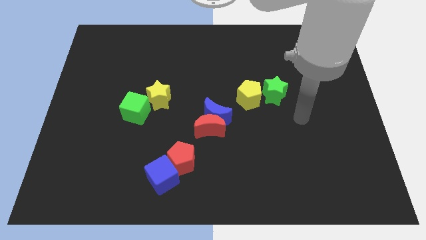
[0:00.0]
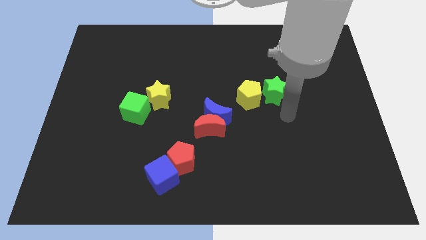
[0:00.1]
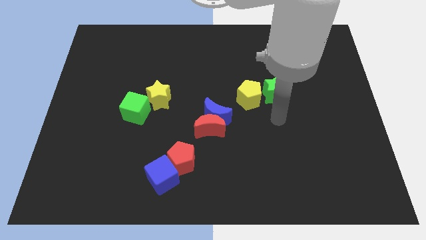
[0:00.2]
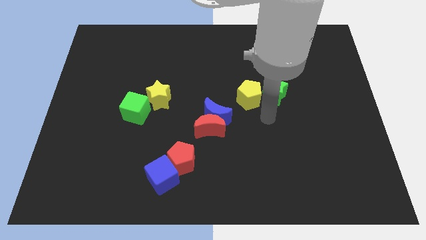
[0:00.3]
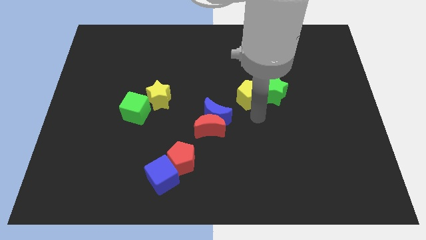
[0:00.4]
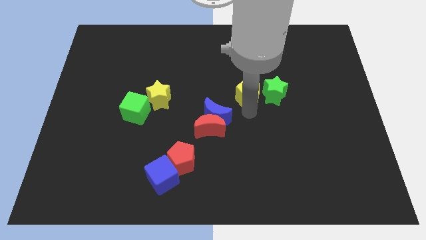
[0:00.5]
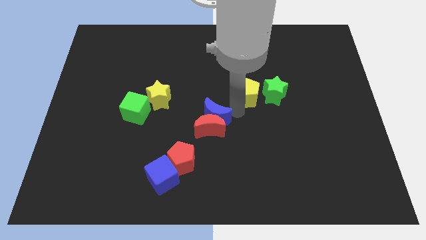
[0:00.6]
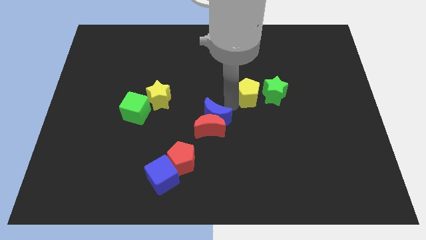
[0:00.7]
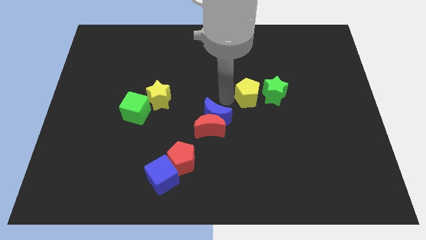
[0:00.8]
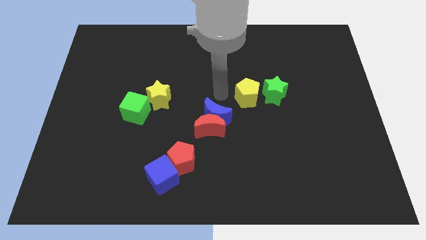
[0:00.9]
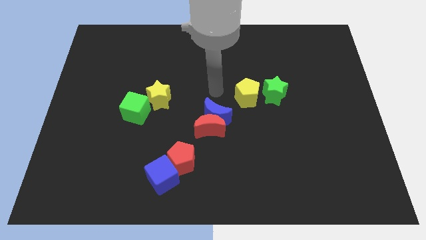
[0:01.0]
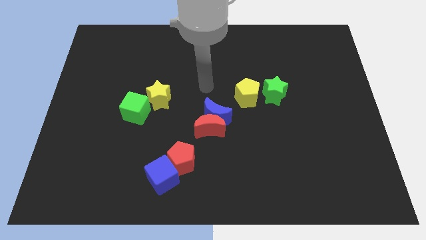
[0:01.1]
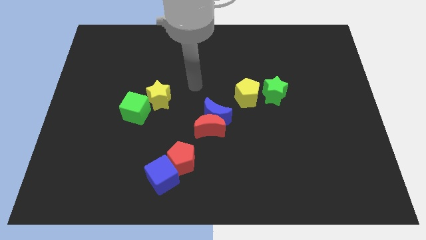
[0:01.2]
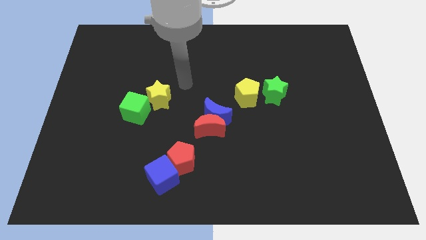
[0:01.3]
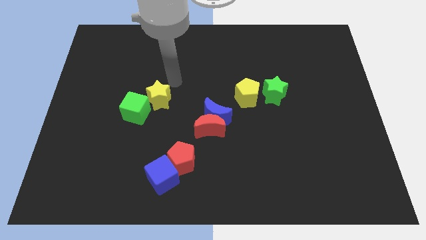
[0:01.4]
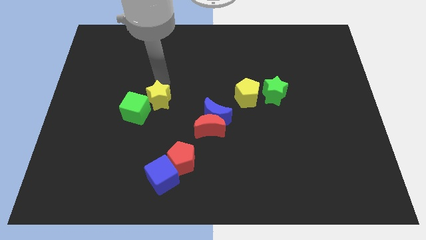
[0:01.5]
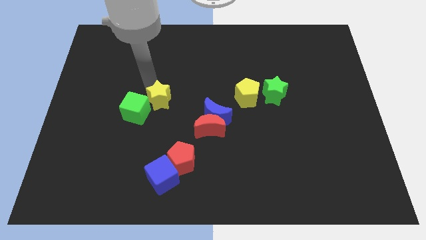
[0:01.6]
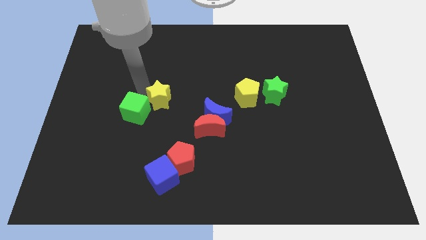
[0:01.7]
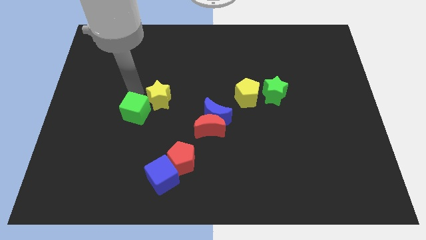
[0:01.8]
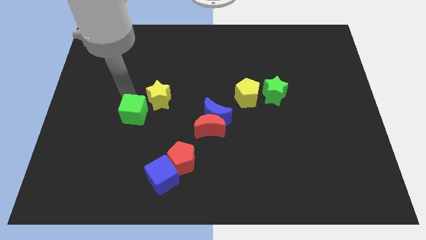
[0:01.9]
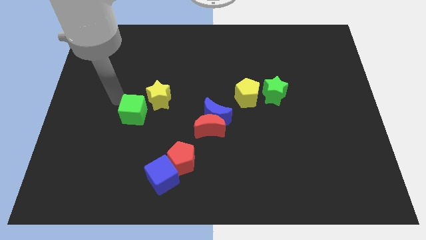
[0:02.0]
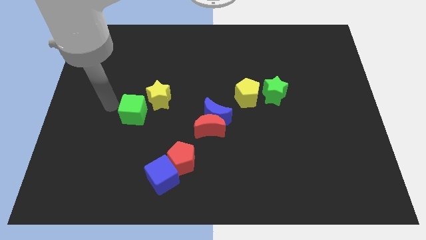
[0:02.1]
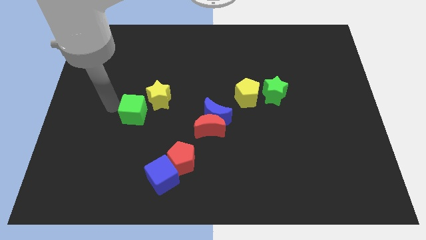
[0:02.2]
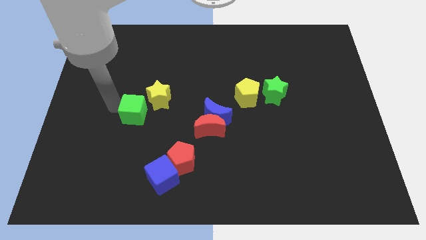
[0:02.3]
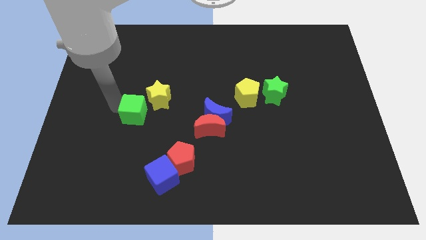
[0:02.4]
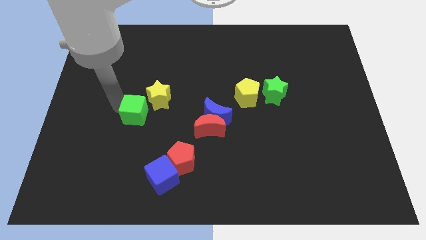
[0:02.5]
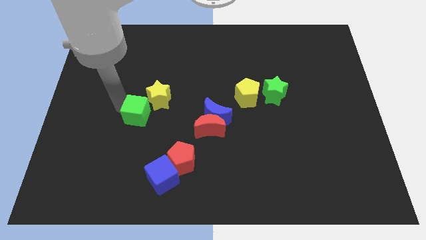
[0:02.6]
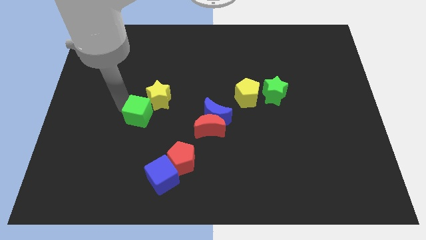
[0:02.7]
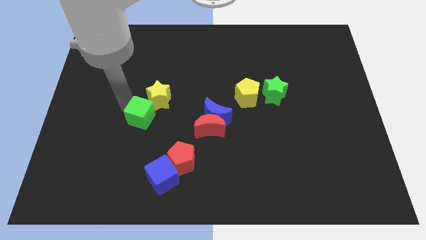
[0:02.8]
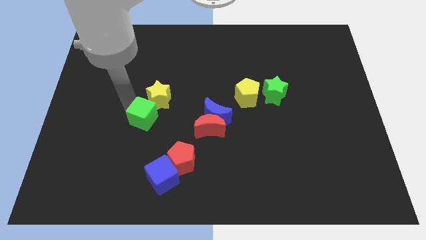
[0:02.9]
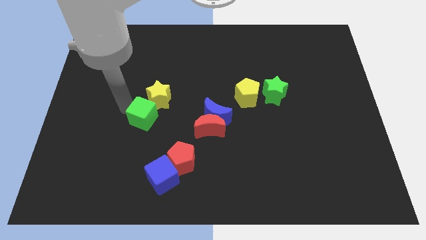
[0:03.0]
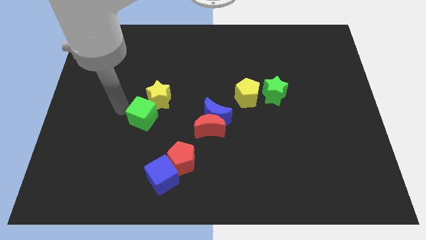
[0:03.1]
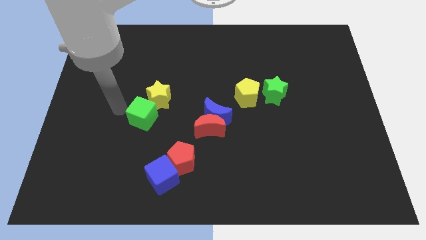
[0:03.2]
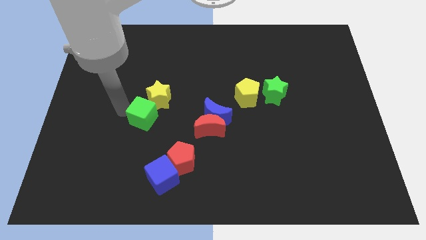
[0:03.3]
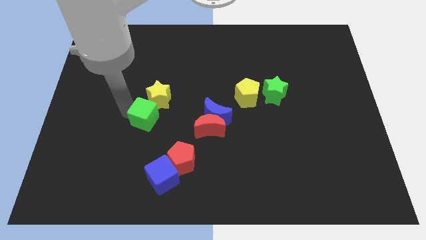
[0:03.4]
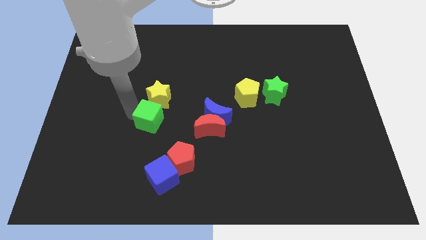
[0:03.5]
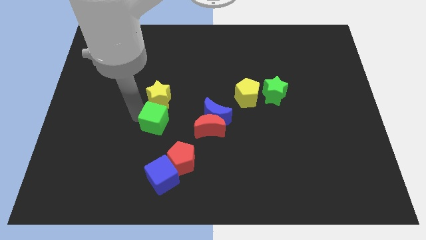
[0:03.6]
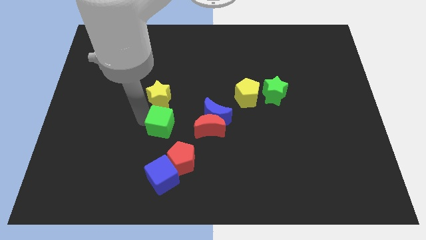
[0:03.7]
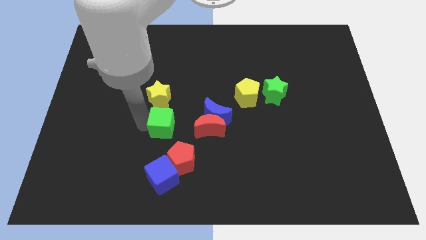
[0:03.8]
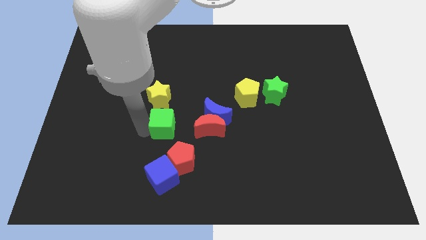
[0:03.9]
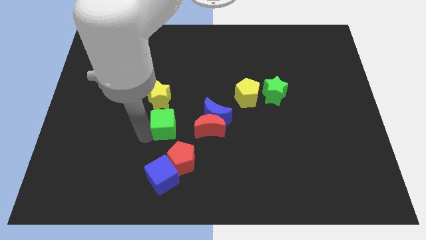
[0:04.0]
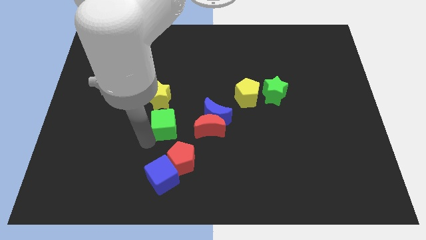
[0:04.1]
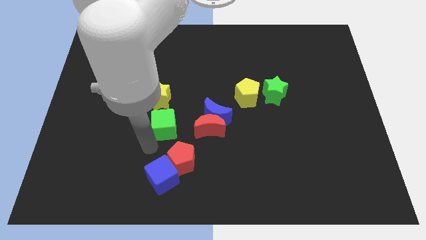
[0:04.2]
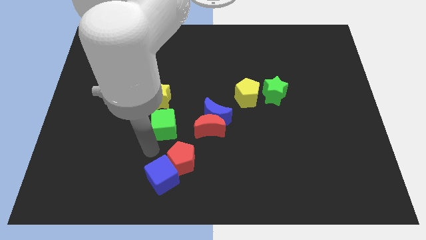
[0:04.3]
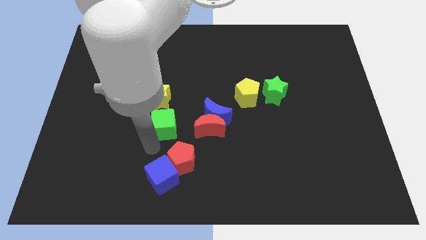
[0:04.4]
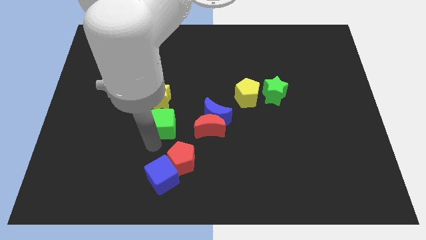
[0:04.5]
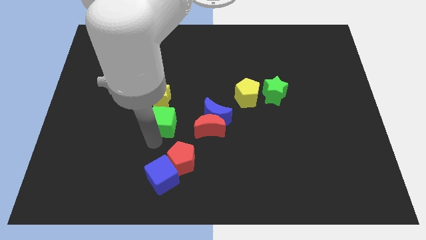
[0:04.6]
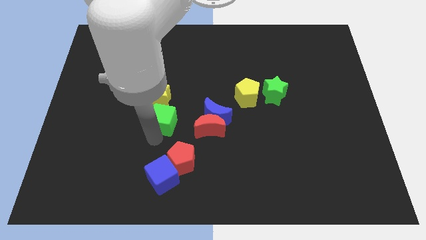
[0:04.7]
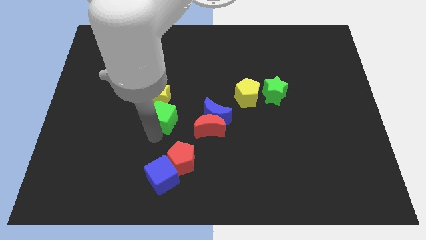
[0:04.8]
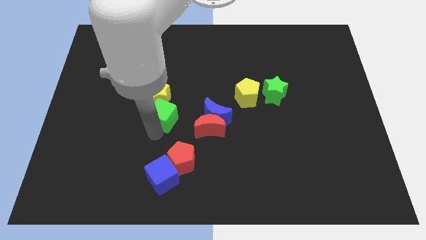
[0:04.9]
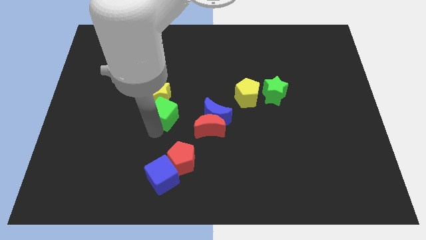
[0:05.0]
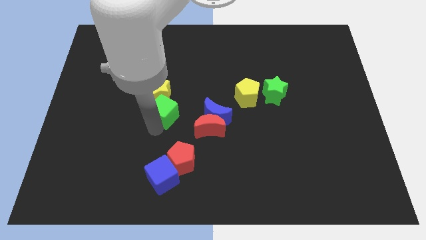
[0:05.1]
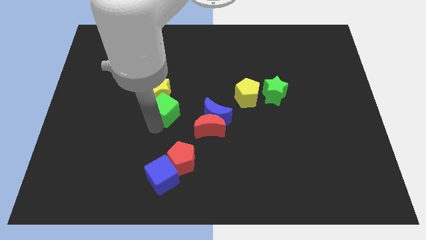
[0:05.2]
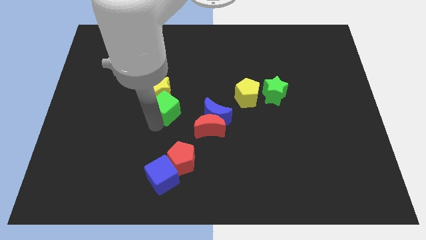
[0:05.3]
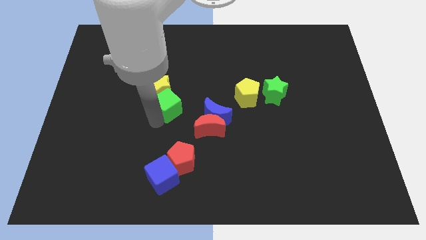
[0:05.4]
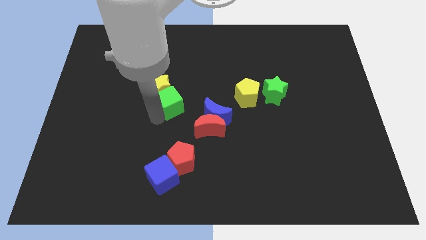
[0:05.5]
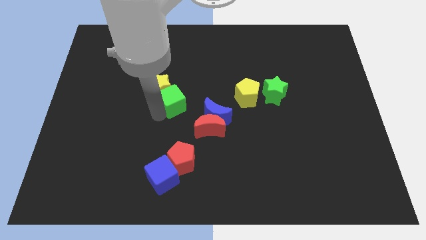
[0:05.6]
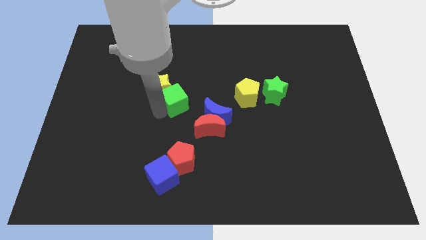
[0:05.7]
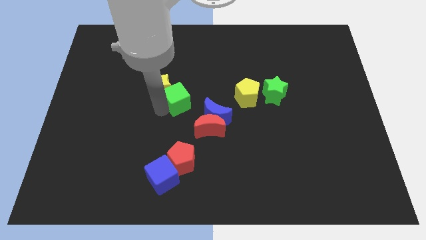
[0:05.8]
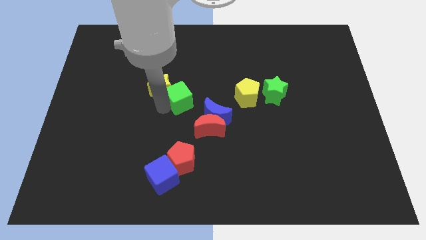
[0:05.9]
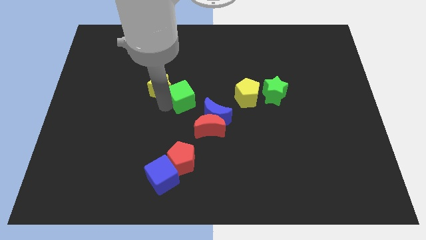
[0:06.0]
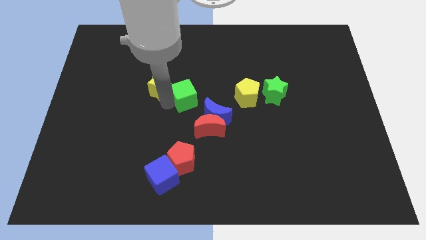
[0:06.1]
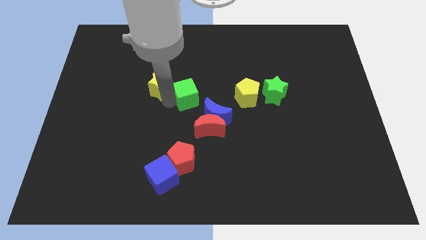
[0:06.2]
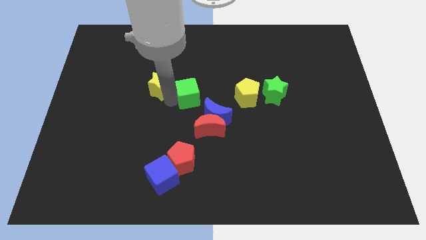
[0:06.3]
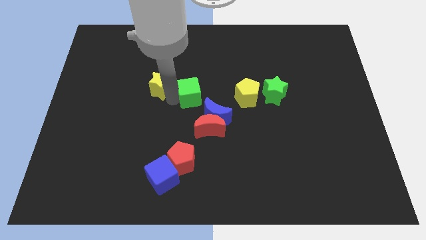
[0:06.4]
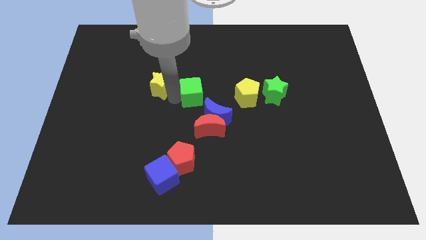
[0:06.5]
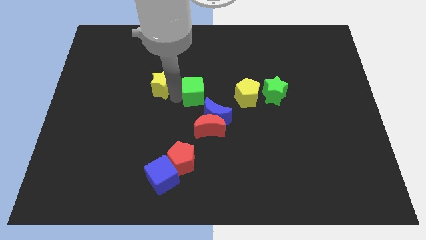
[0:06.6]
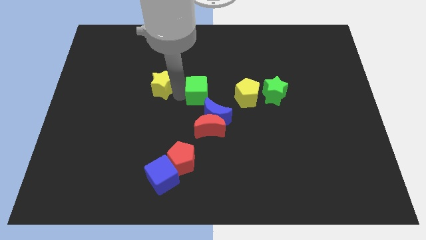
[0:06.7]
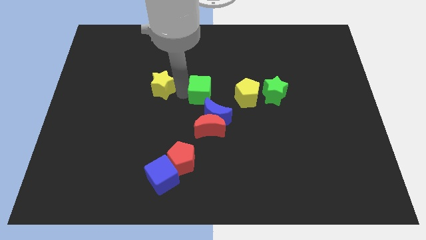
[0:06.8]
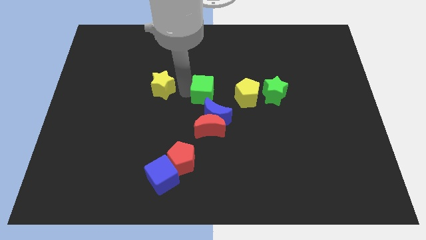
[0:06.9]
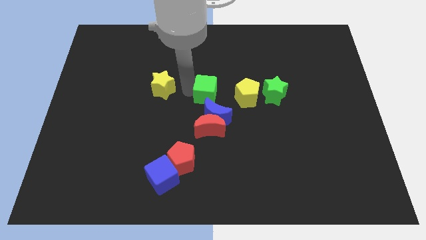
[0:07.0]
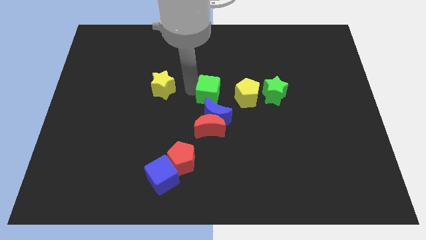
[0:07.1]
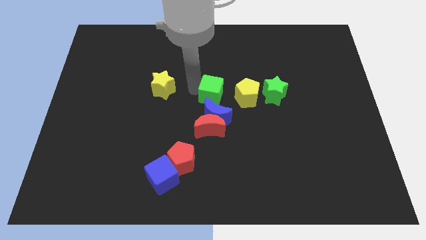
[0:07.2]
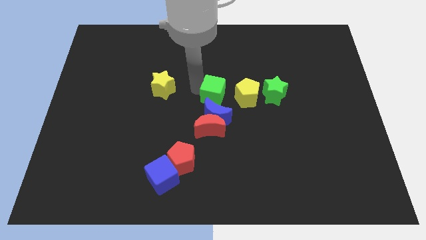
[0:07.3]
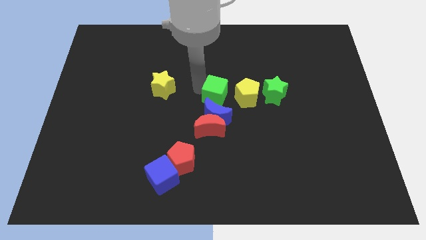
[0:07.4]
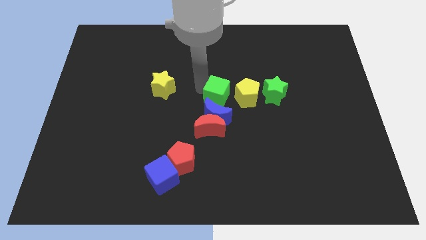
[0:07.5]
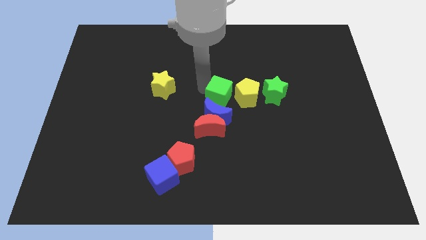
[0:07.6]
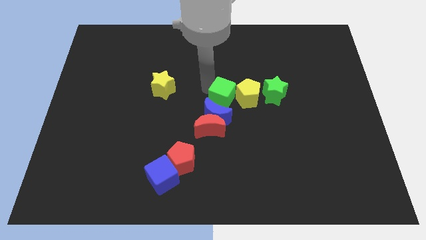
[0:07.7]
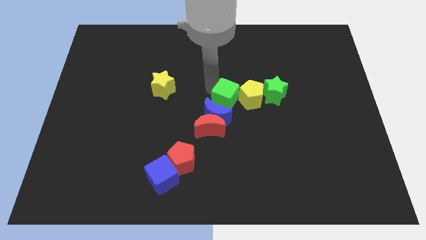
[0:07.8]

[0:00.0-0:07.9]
slide the green cube right

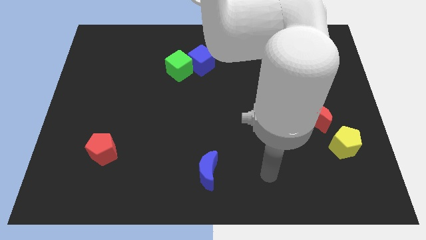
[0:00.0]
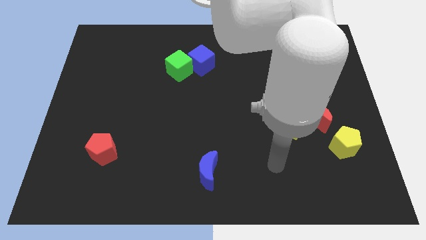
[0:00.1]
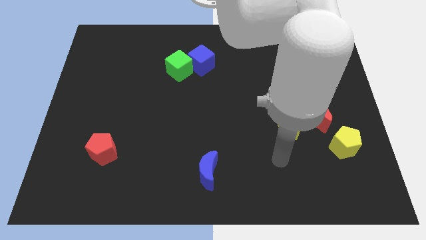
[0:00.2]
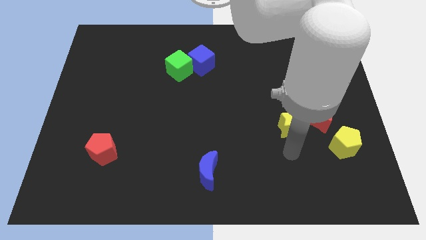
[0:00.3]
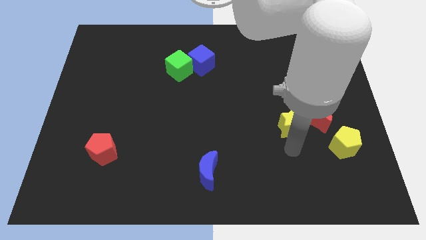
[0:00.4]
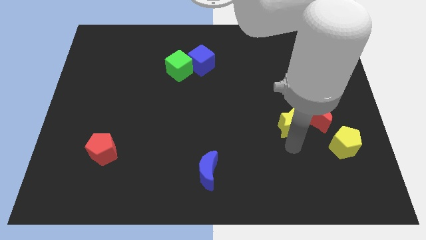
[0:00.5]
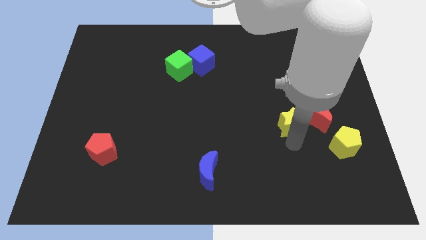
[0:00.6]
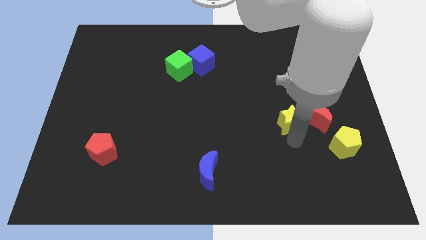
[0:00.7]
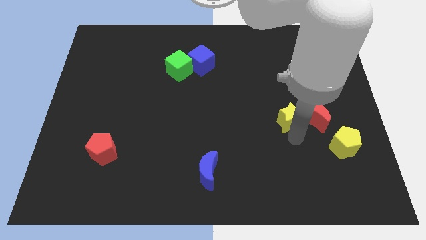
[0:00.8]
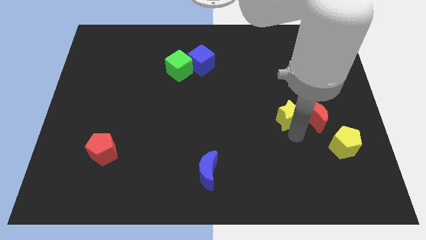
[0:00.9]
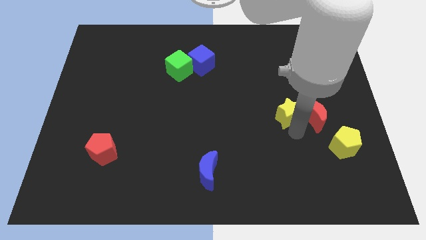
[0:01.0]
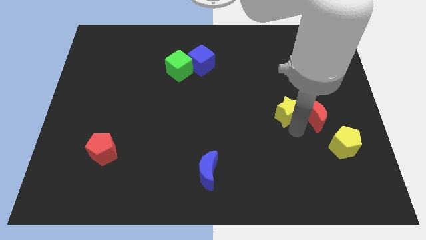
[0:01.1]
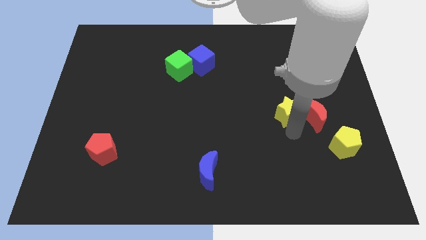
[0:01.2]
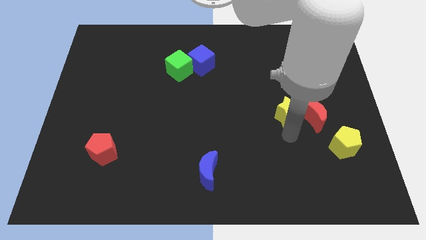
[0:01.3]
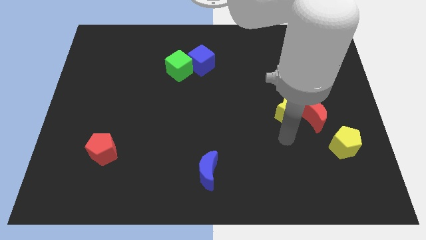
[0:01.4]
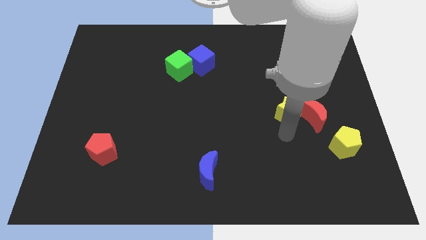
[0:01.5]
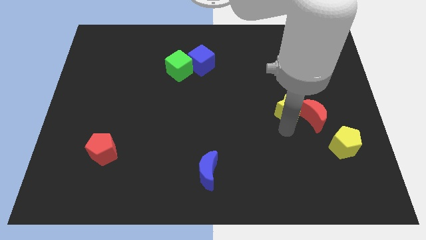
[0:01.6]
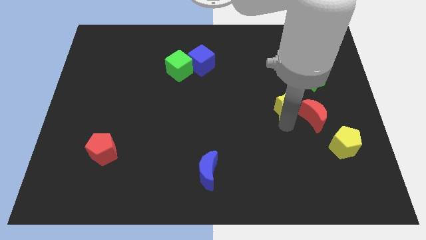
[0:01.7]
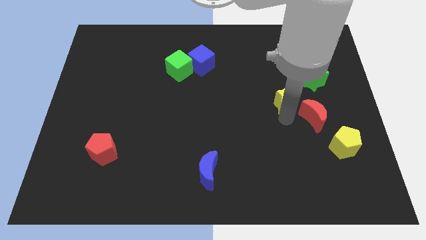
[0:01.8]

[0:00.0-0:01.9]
push the yellow star a little bit up
